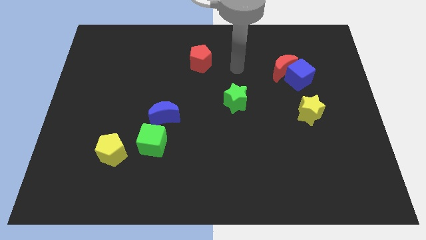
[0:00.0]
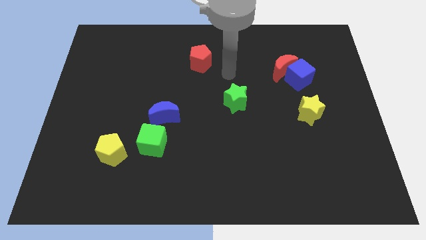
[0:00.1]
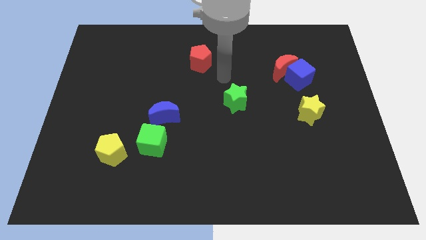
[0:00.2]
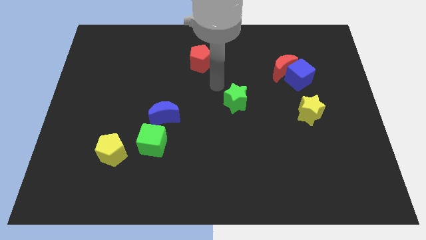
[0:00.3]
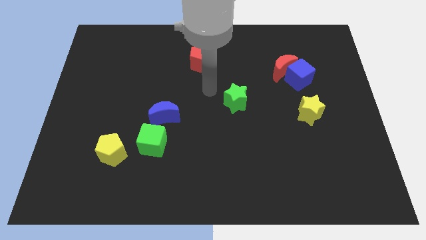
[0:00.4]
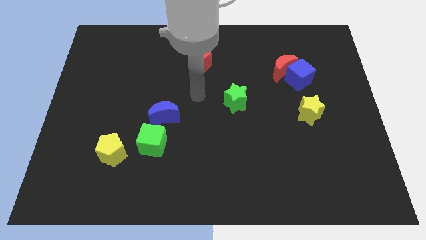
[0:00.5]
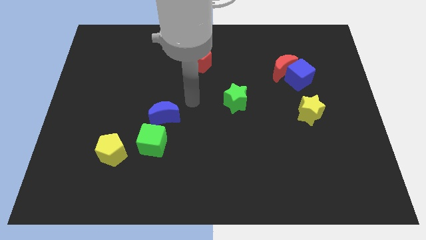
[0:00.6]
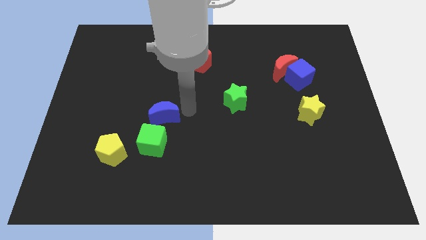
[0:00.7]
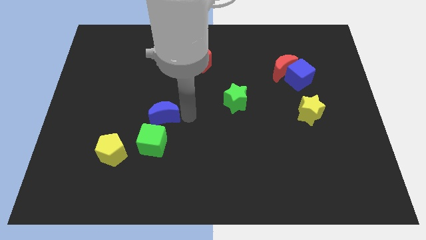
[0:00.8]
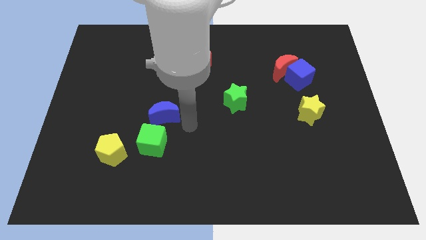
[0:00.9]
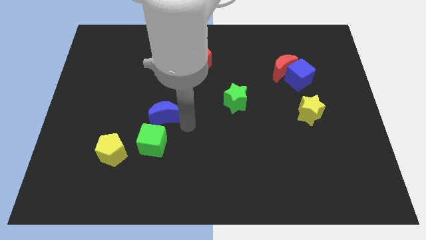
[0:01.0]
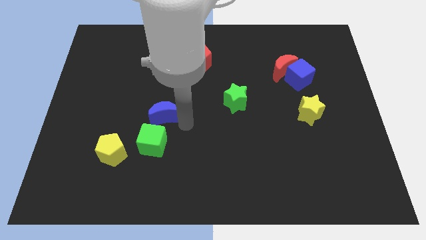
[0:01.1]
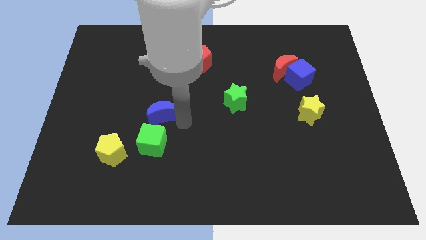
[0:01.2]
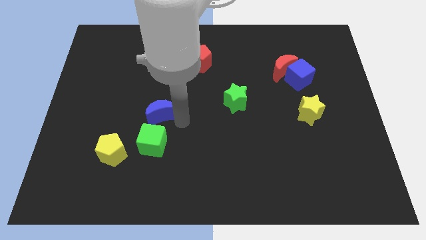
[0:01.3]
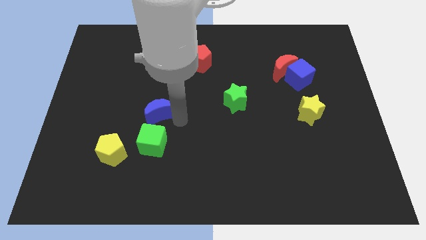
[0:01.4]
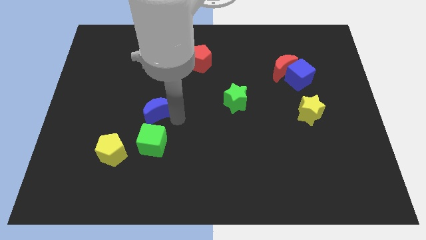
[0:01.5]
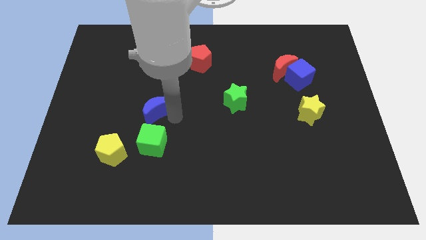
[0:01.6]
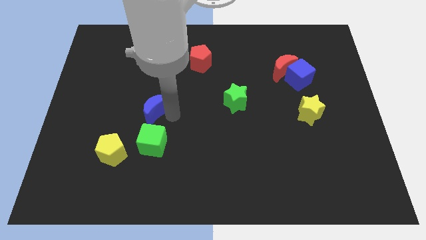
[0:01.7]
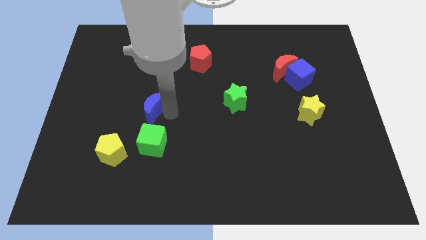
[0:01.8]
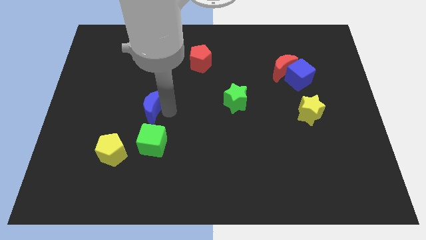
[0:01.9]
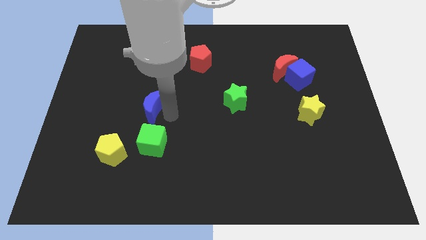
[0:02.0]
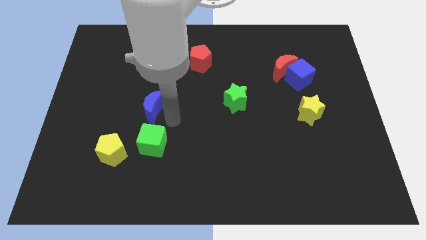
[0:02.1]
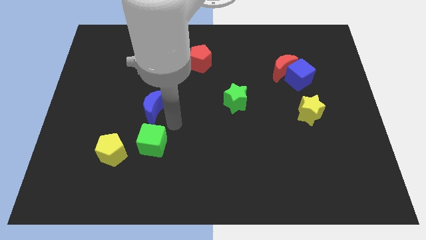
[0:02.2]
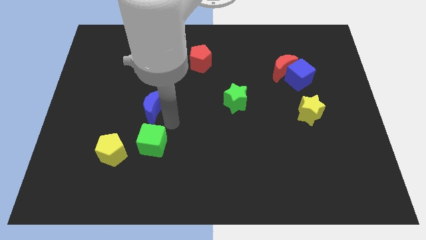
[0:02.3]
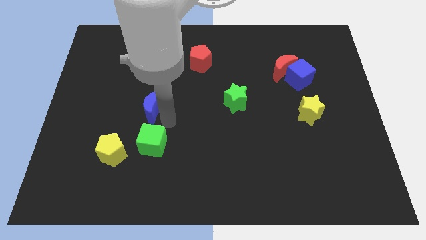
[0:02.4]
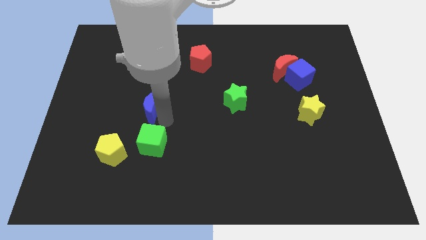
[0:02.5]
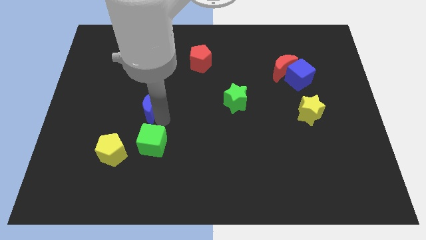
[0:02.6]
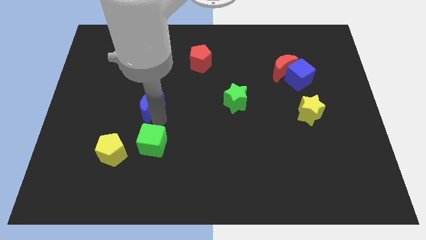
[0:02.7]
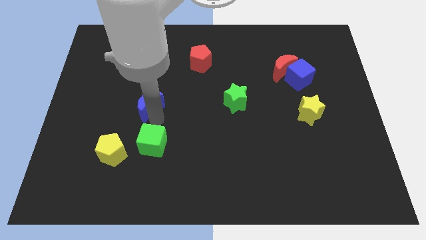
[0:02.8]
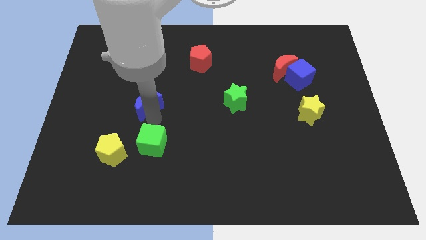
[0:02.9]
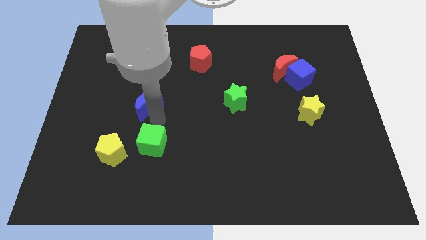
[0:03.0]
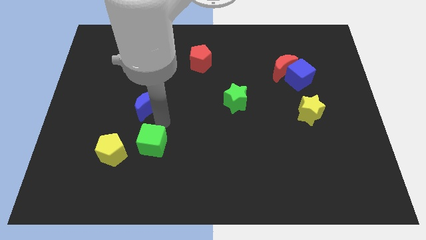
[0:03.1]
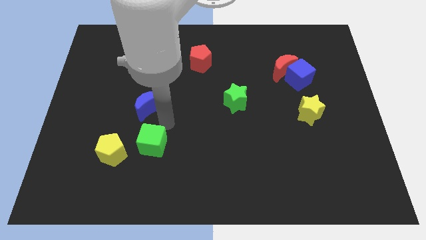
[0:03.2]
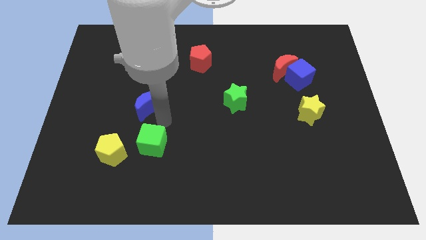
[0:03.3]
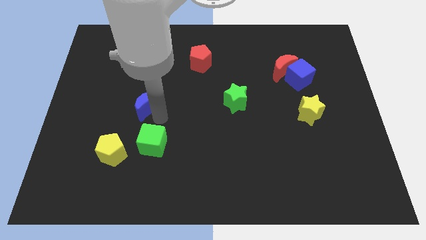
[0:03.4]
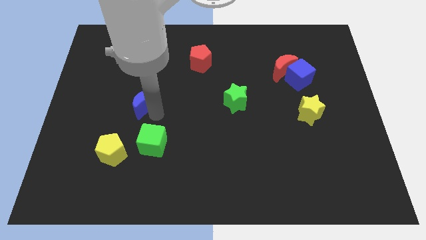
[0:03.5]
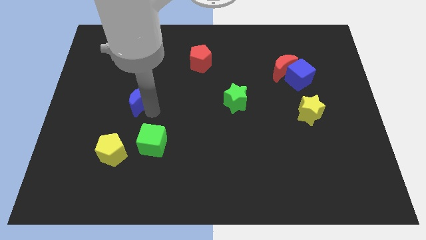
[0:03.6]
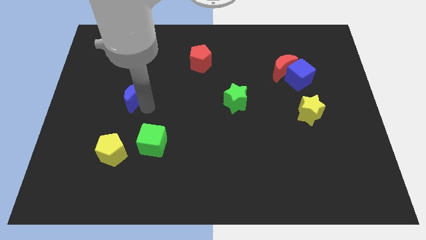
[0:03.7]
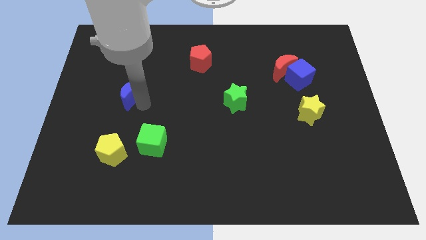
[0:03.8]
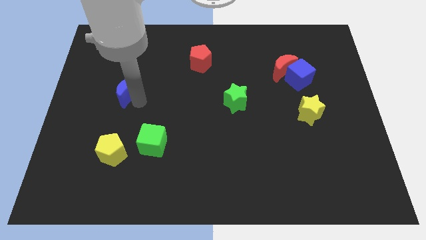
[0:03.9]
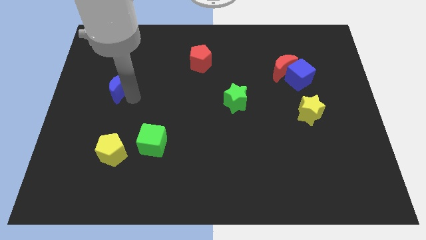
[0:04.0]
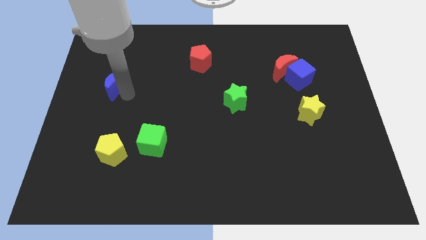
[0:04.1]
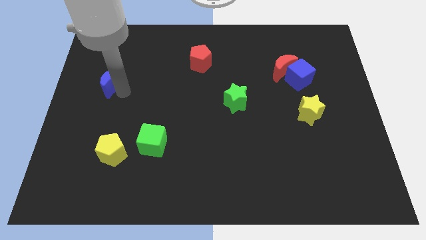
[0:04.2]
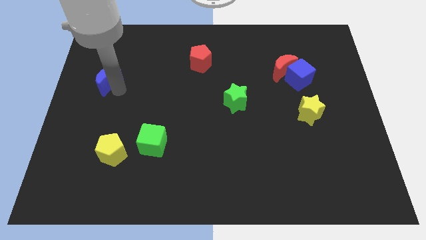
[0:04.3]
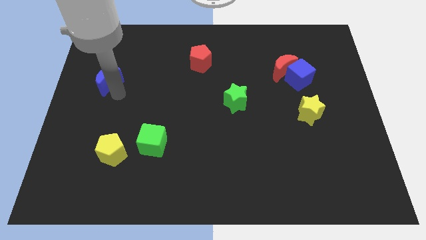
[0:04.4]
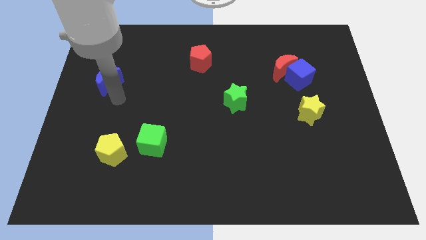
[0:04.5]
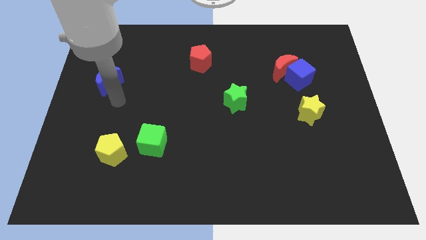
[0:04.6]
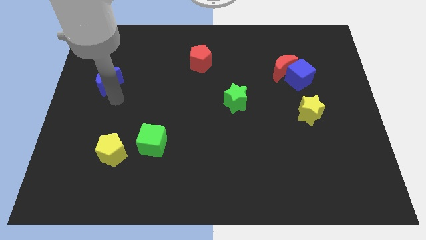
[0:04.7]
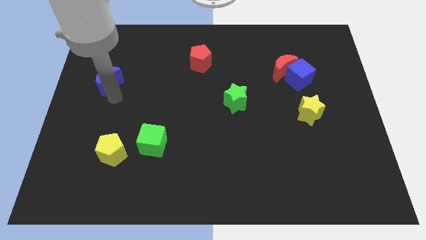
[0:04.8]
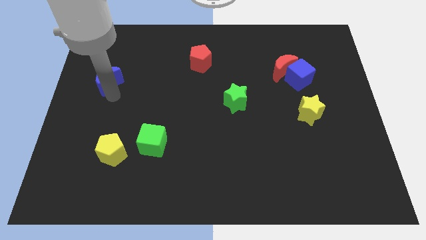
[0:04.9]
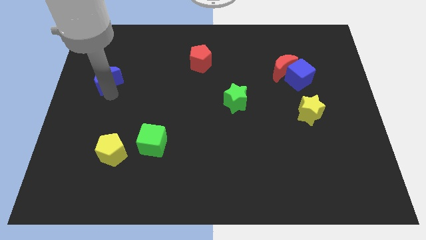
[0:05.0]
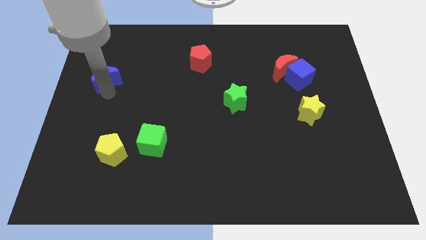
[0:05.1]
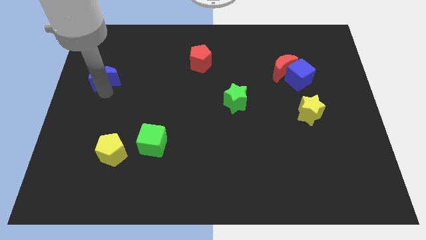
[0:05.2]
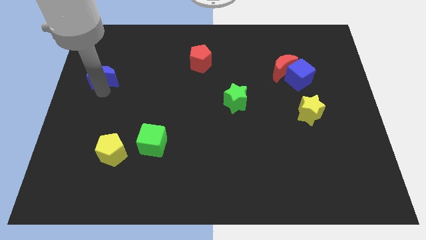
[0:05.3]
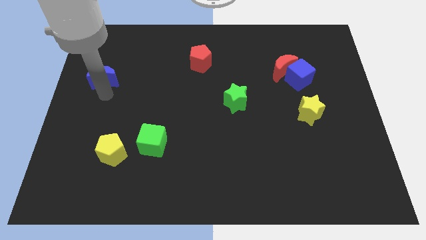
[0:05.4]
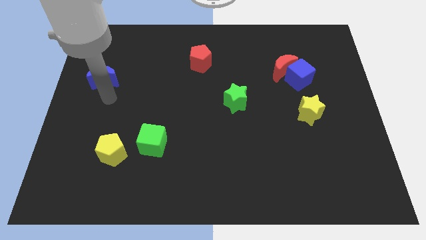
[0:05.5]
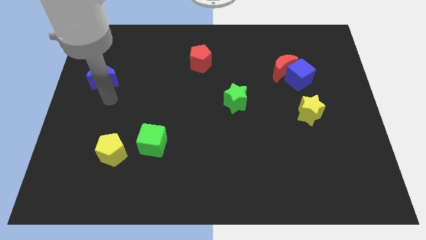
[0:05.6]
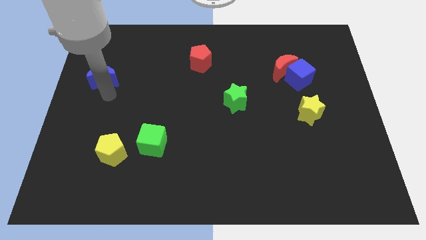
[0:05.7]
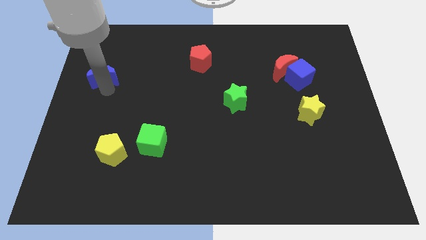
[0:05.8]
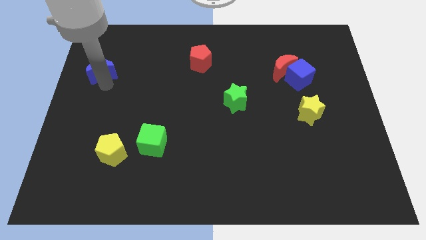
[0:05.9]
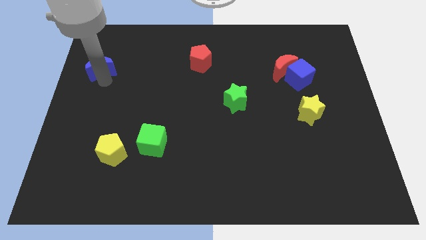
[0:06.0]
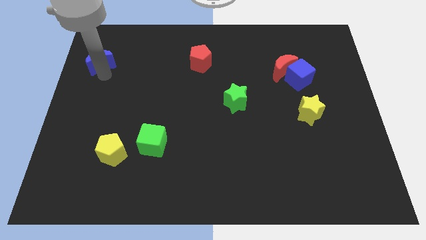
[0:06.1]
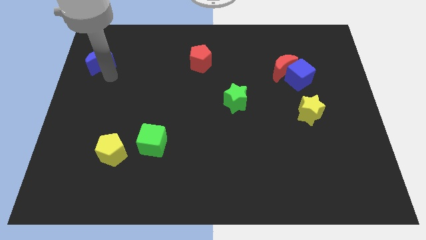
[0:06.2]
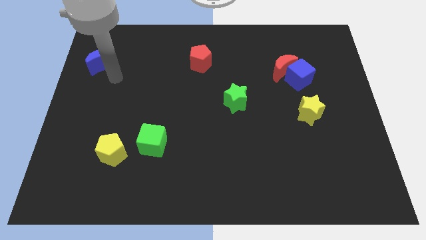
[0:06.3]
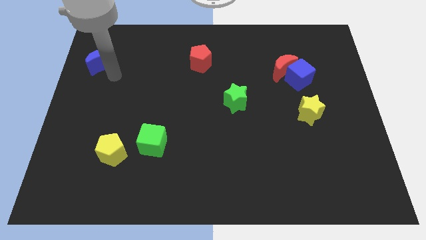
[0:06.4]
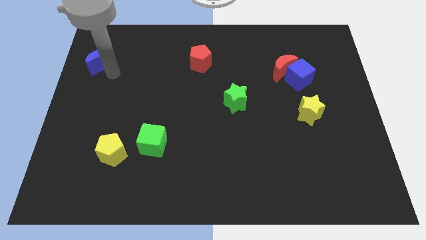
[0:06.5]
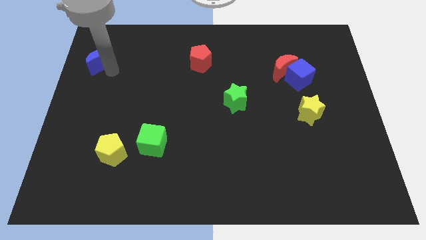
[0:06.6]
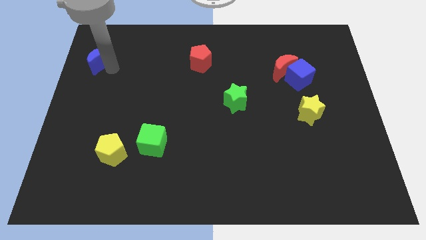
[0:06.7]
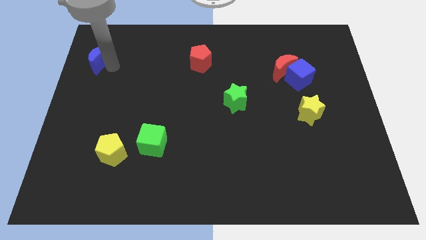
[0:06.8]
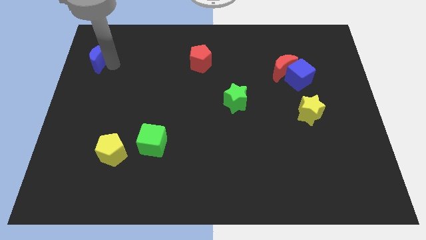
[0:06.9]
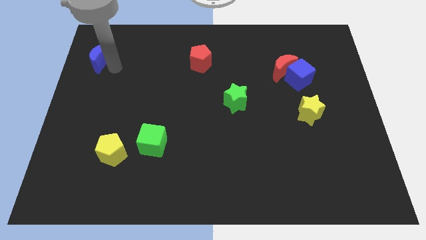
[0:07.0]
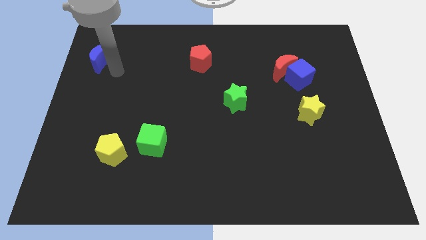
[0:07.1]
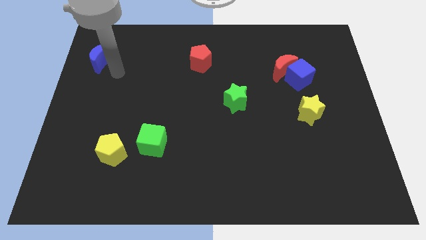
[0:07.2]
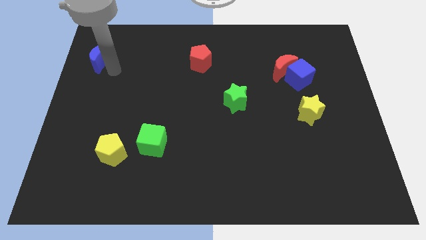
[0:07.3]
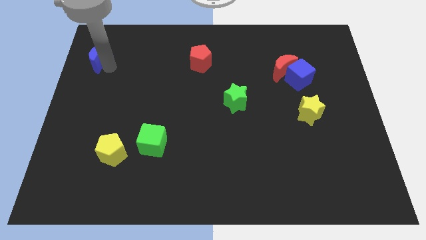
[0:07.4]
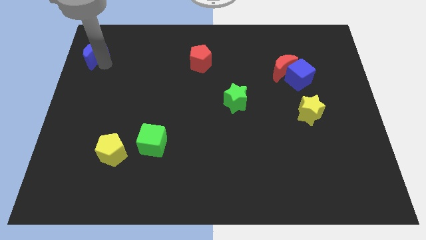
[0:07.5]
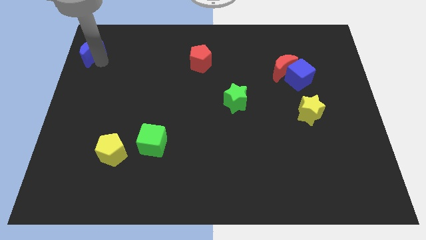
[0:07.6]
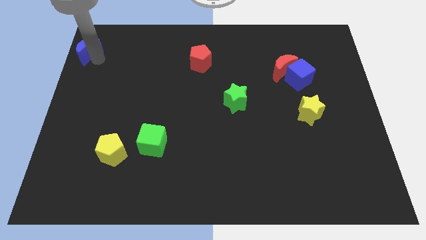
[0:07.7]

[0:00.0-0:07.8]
move the blue moon to the upper left corner
